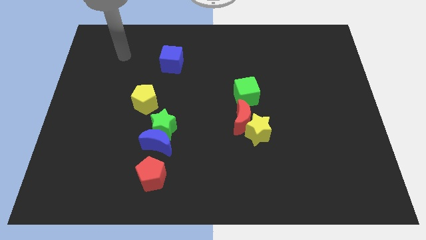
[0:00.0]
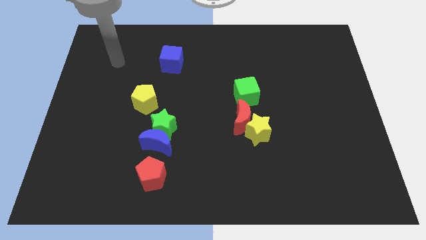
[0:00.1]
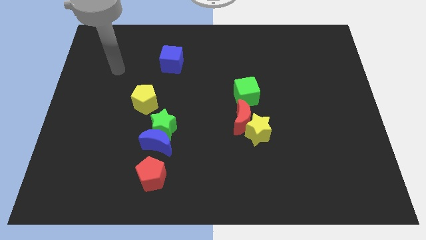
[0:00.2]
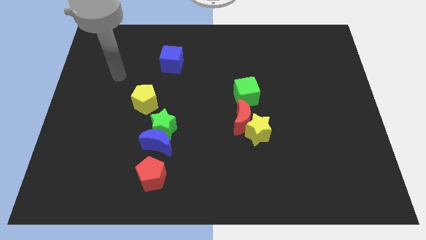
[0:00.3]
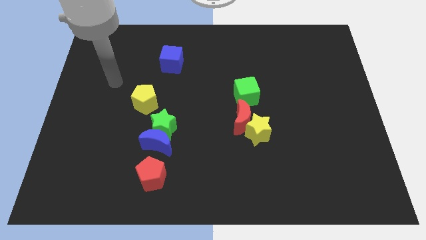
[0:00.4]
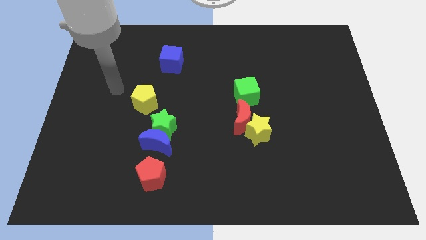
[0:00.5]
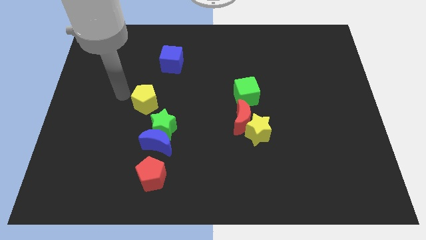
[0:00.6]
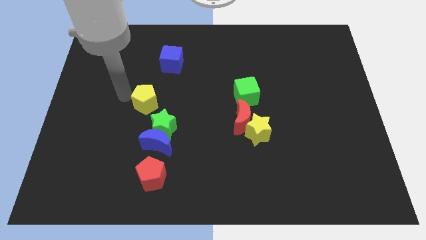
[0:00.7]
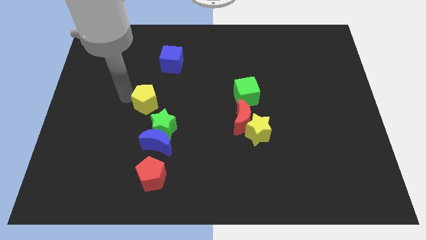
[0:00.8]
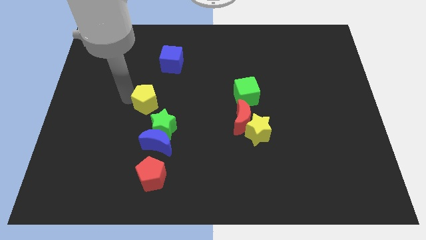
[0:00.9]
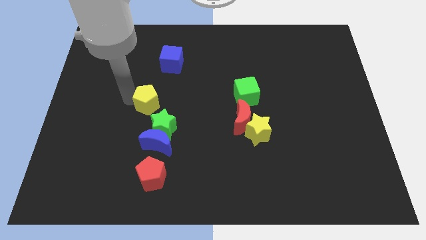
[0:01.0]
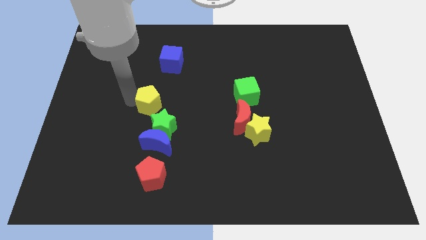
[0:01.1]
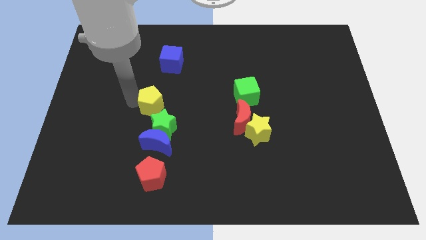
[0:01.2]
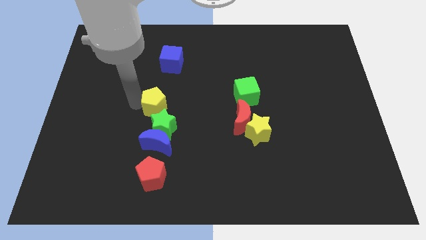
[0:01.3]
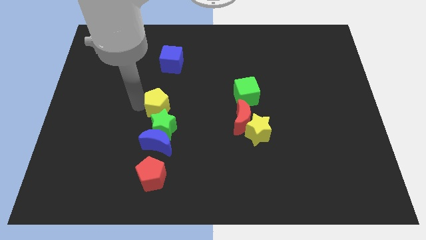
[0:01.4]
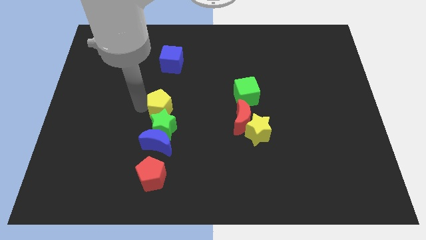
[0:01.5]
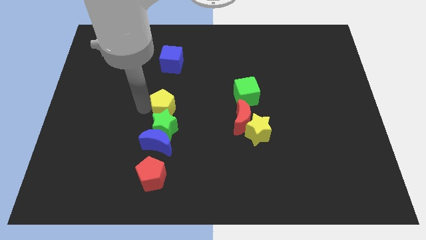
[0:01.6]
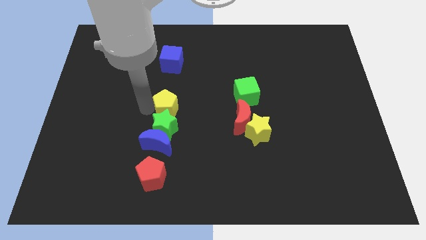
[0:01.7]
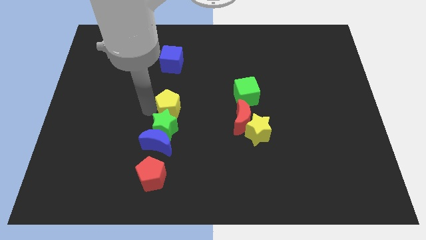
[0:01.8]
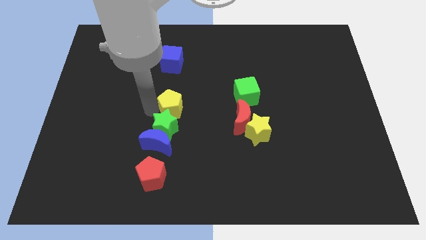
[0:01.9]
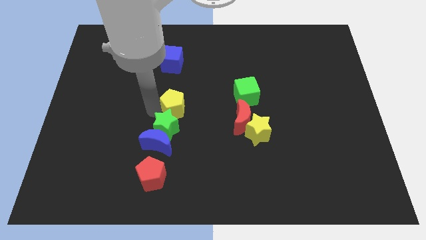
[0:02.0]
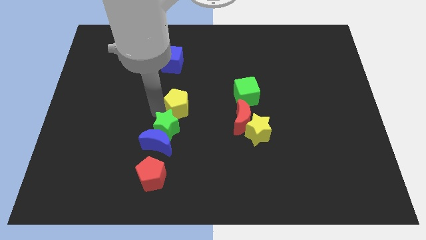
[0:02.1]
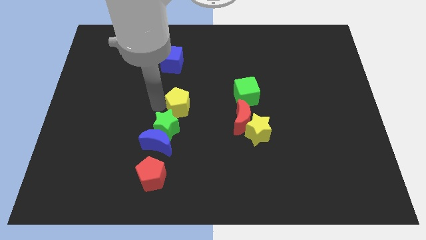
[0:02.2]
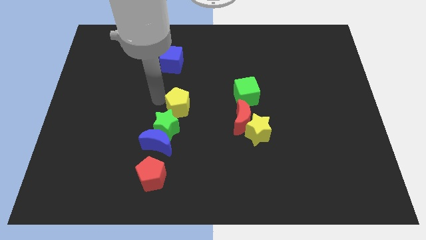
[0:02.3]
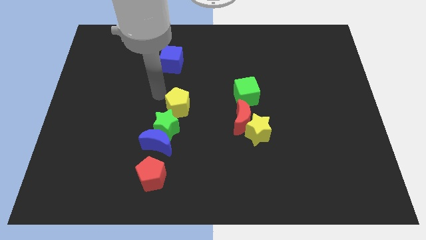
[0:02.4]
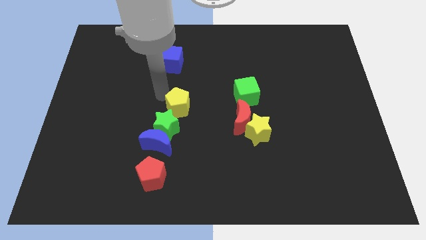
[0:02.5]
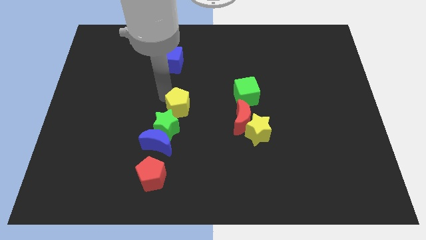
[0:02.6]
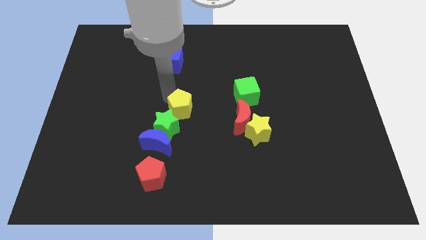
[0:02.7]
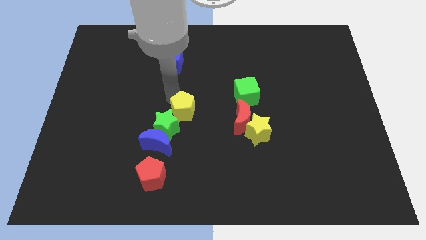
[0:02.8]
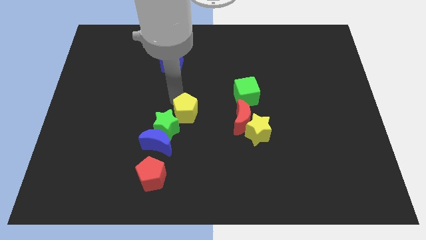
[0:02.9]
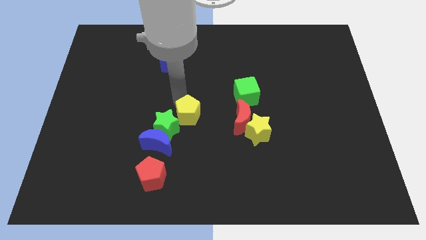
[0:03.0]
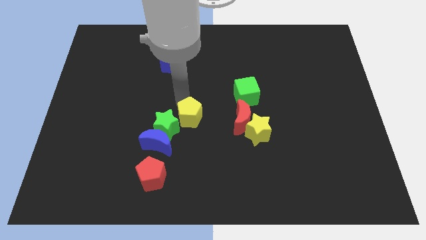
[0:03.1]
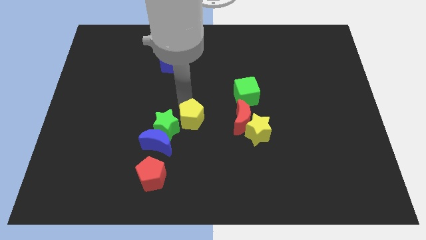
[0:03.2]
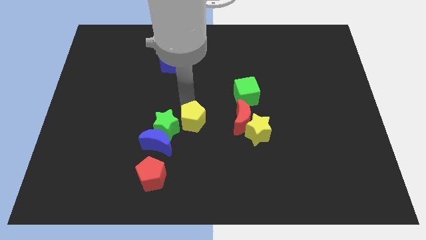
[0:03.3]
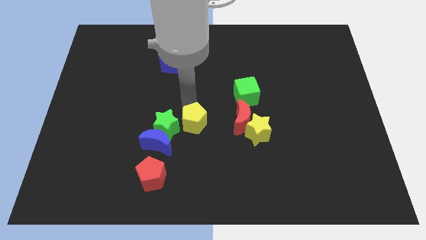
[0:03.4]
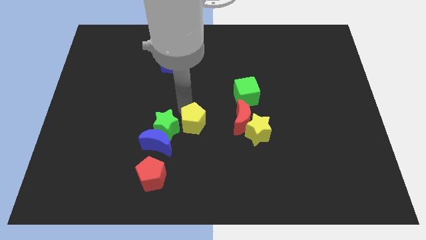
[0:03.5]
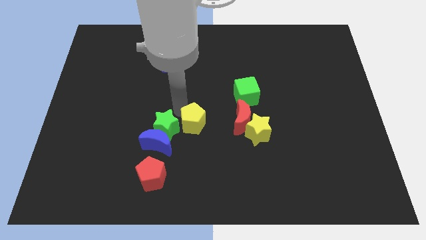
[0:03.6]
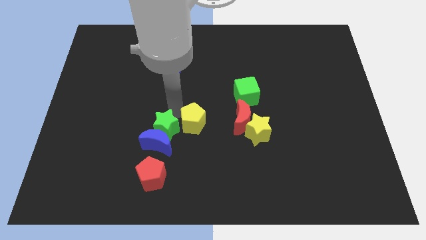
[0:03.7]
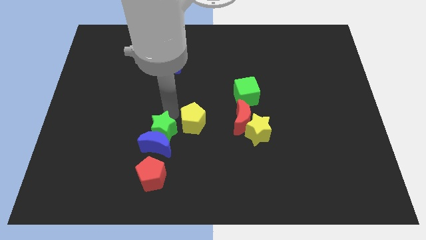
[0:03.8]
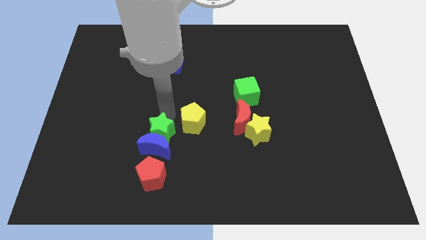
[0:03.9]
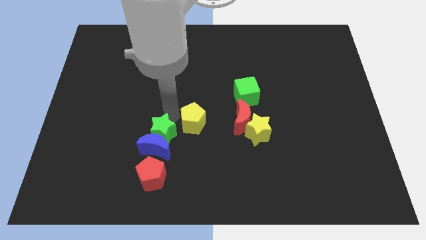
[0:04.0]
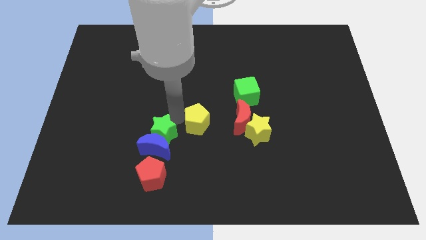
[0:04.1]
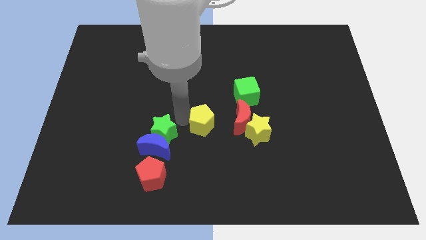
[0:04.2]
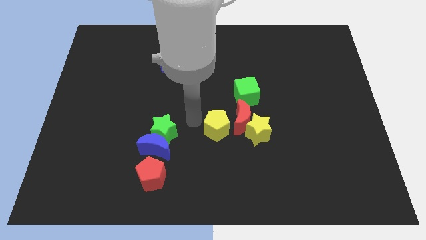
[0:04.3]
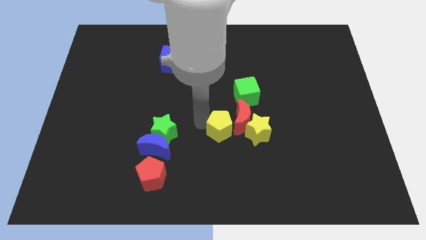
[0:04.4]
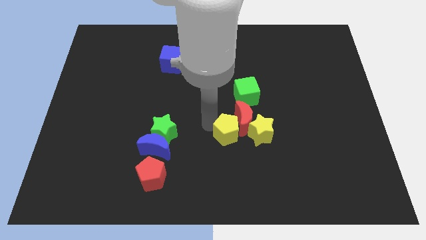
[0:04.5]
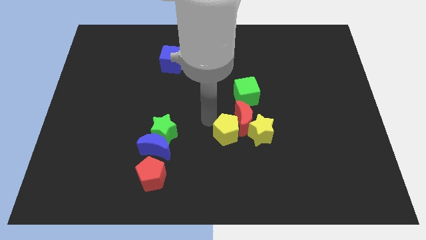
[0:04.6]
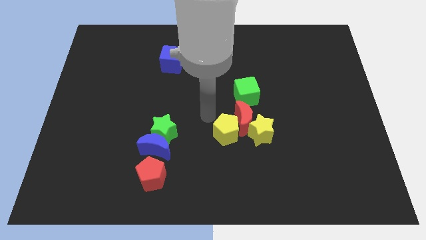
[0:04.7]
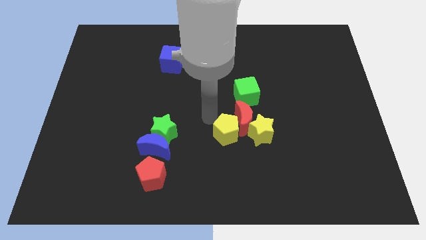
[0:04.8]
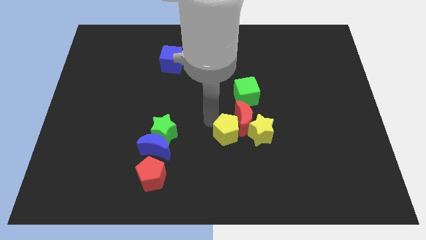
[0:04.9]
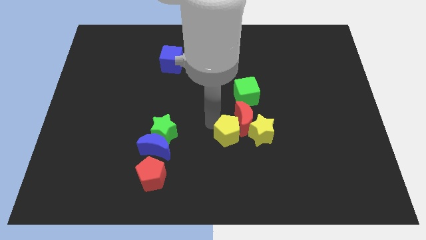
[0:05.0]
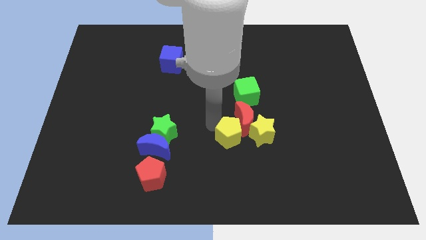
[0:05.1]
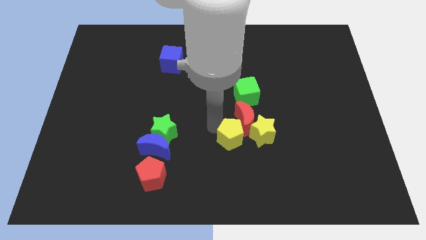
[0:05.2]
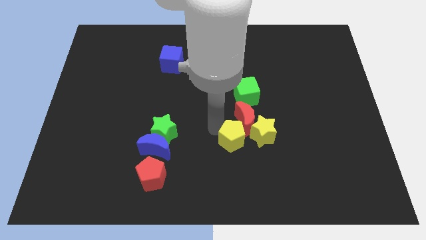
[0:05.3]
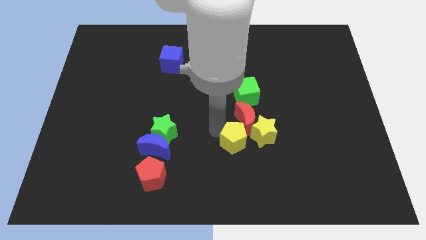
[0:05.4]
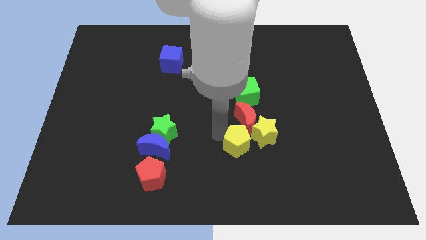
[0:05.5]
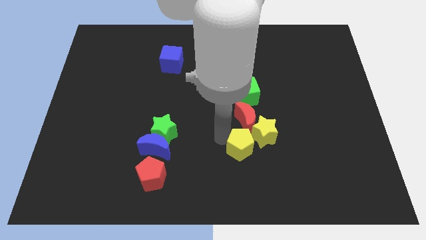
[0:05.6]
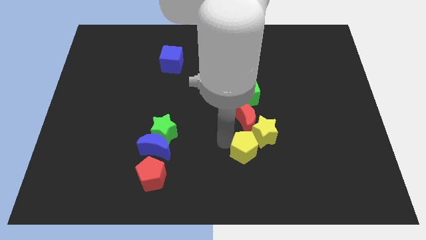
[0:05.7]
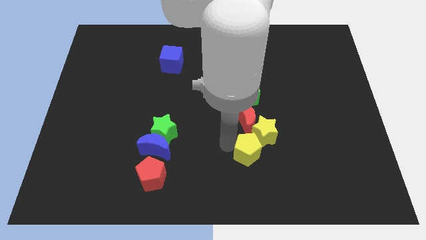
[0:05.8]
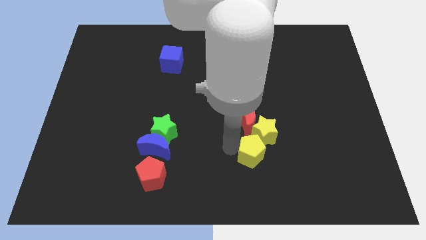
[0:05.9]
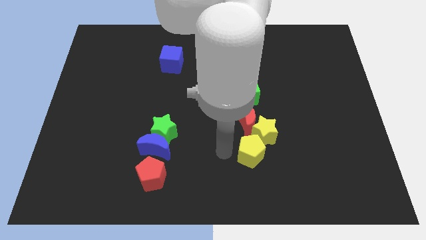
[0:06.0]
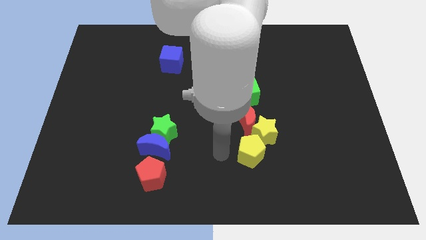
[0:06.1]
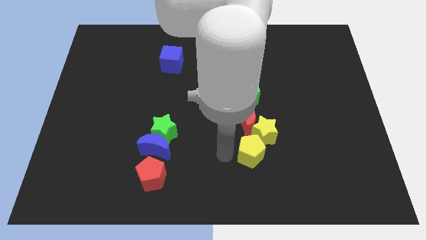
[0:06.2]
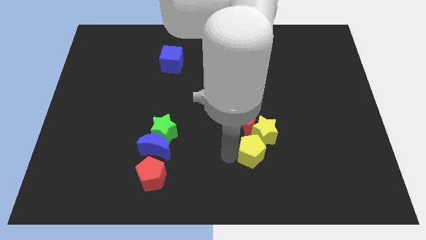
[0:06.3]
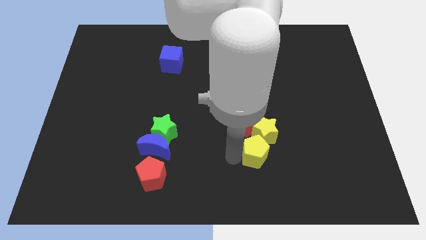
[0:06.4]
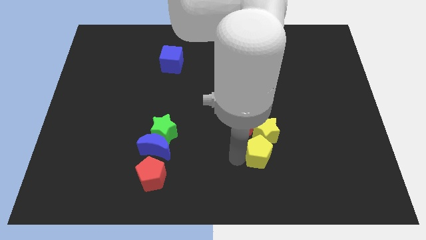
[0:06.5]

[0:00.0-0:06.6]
move the yellow pentagon to the bottom right of the yellow star
